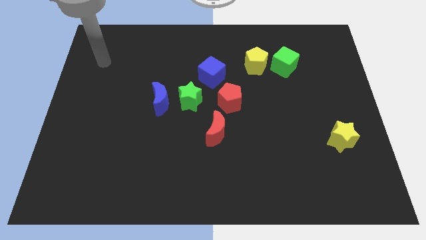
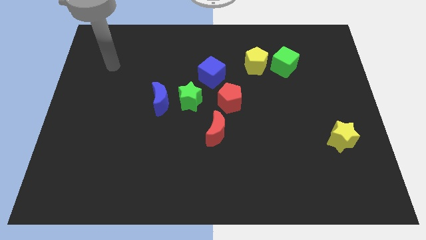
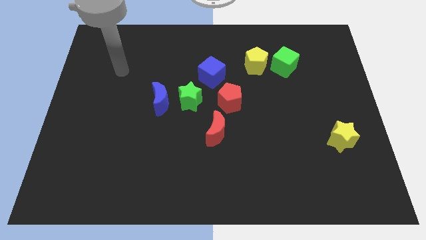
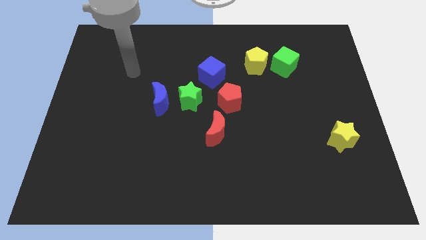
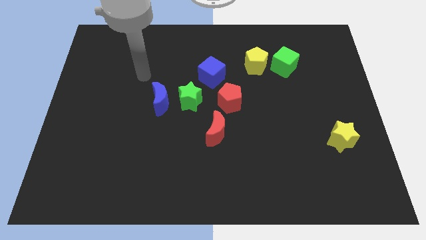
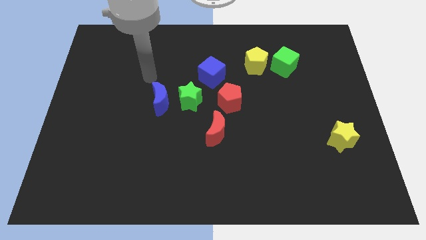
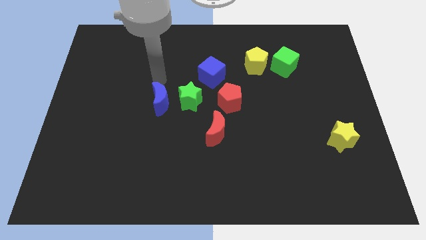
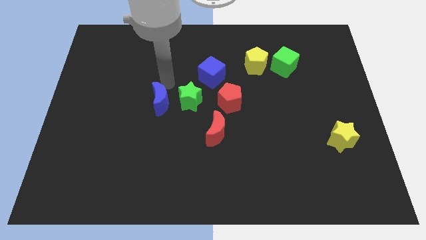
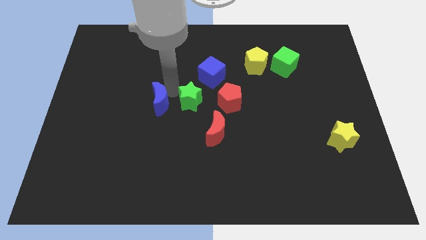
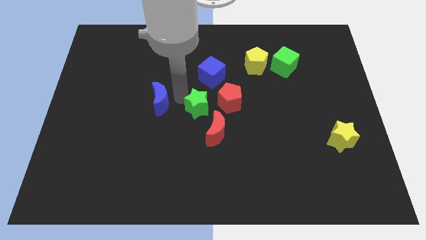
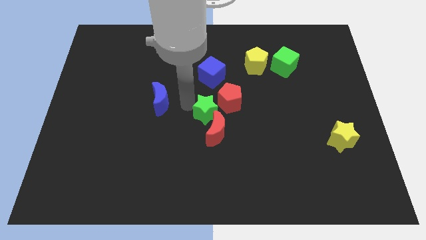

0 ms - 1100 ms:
pull the blue moon apart from the green star

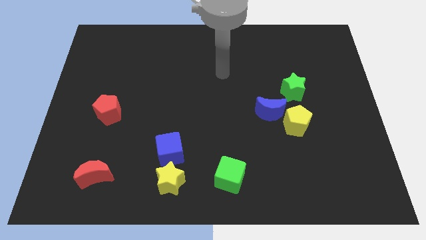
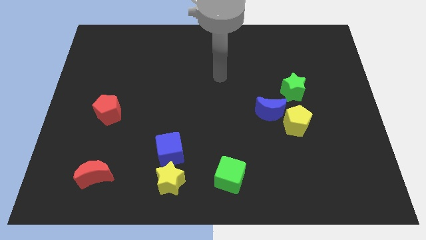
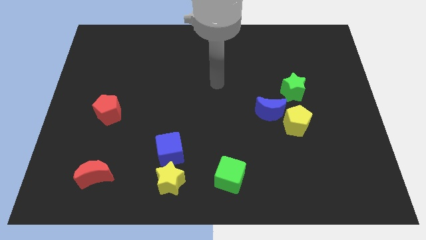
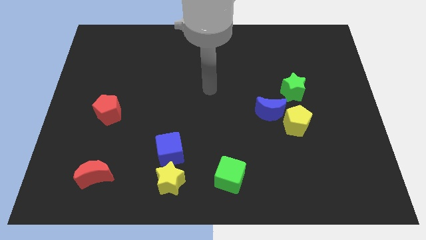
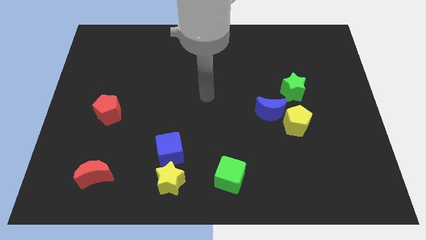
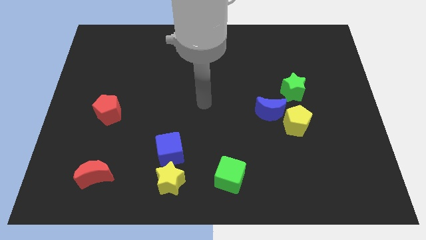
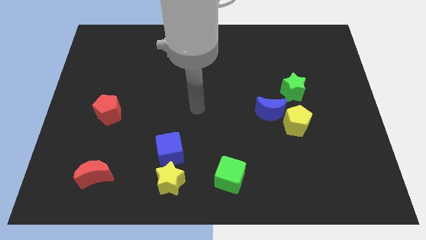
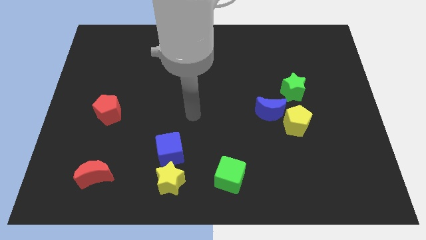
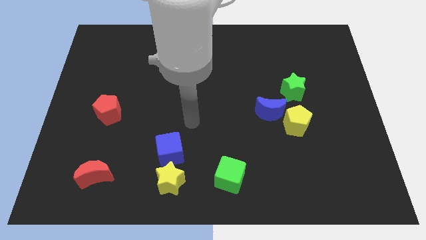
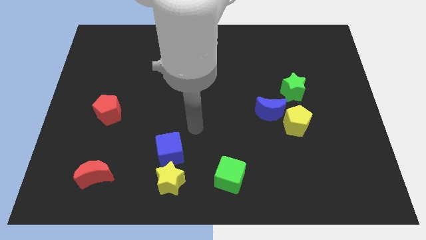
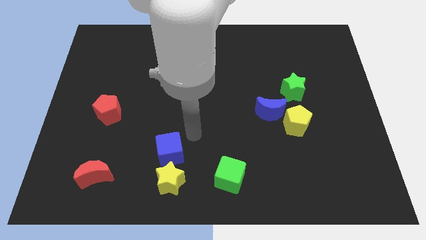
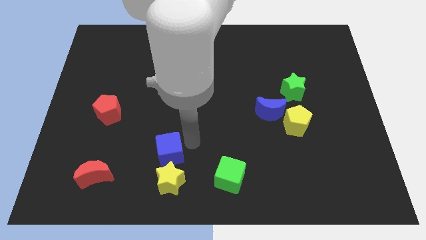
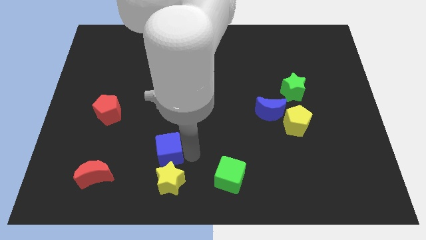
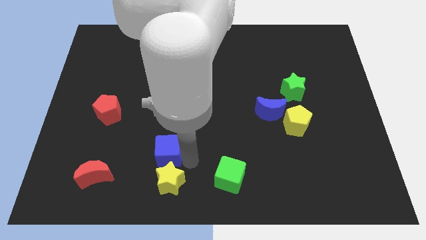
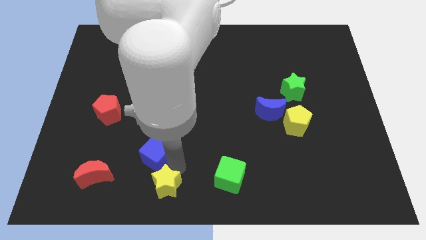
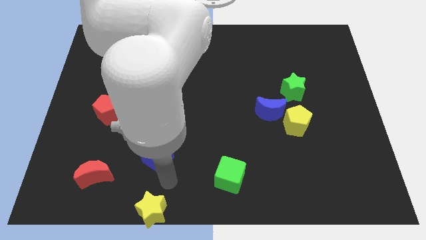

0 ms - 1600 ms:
separate the blue cube from the yellow star

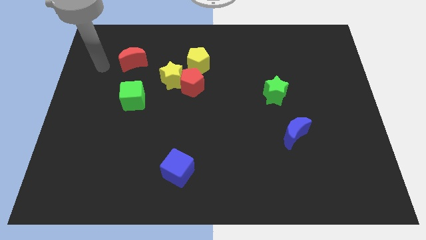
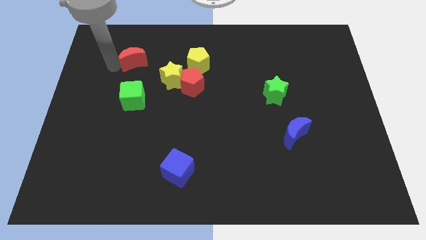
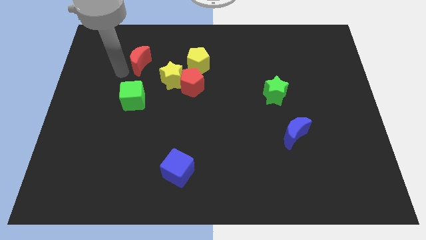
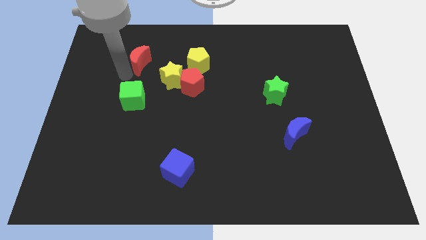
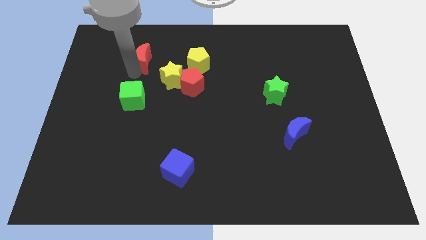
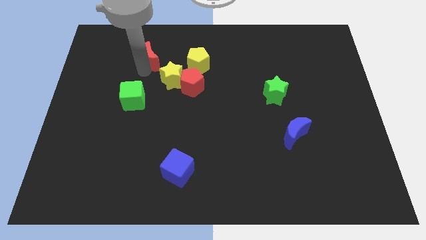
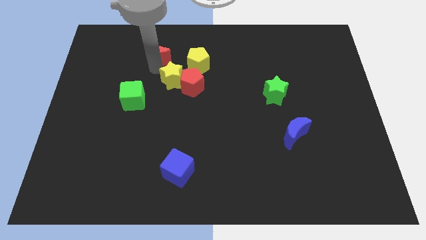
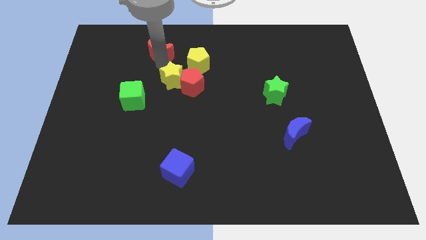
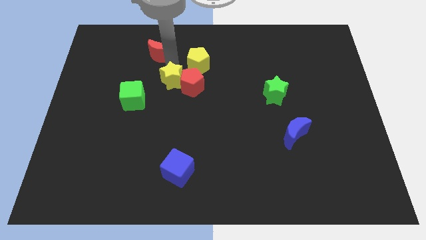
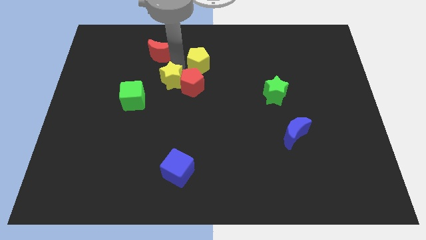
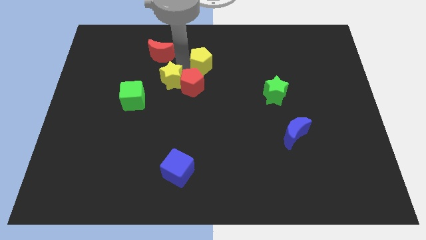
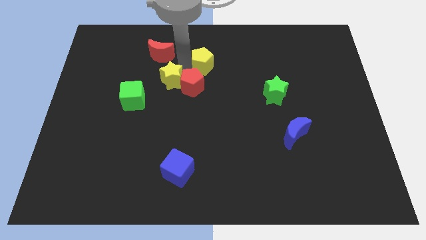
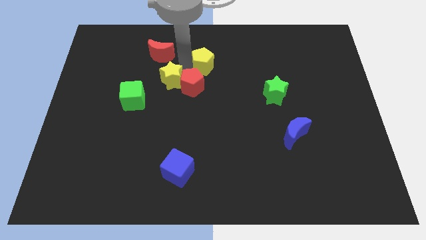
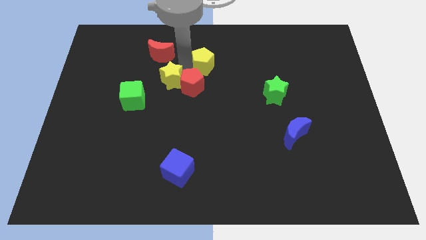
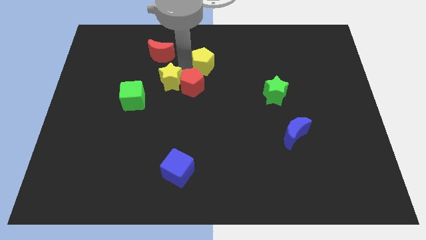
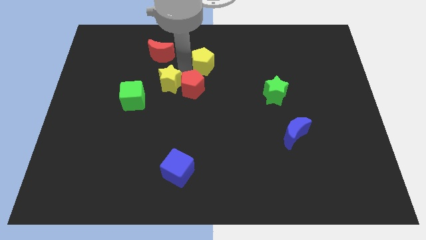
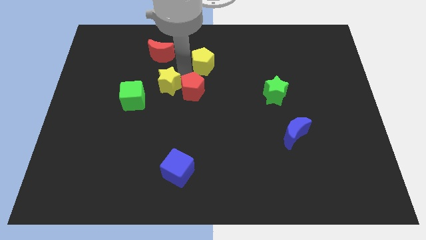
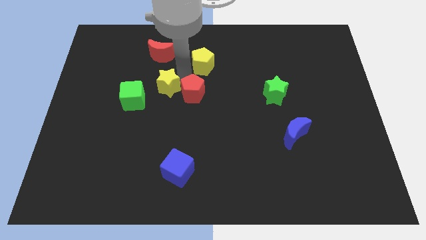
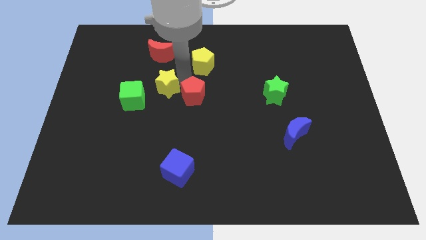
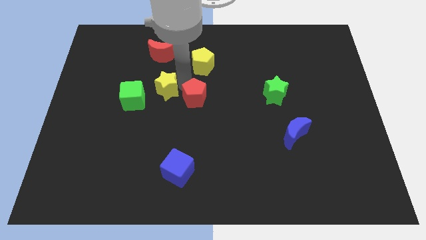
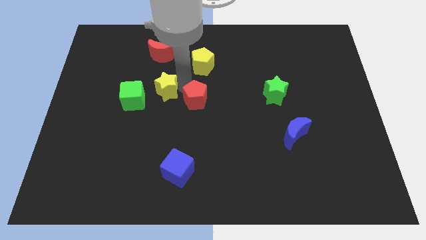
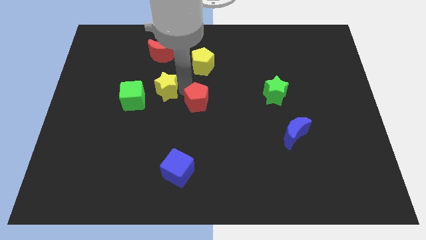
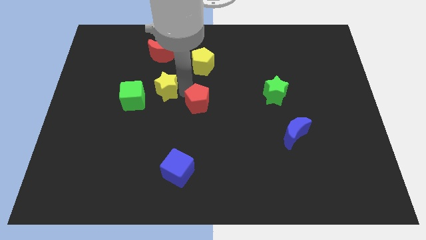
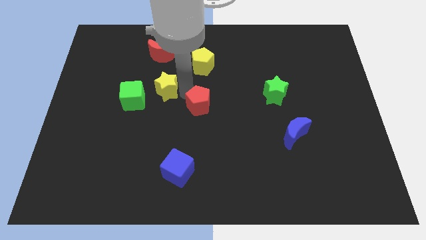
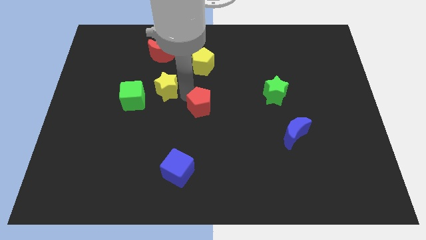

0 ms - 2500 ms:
pull the red pentagon apart from the yellow star and yellow pentagon

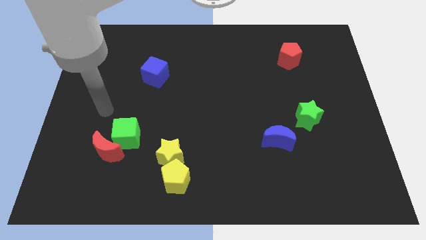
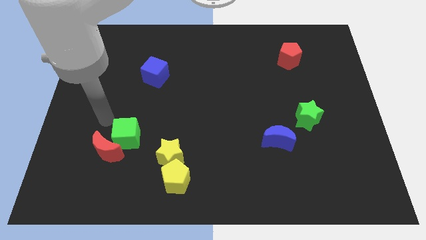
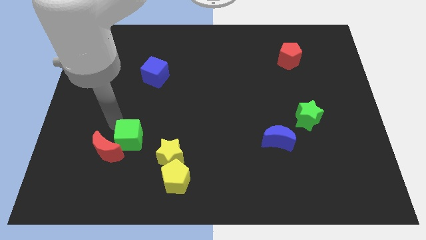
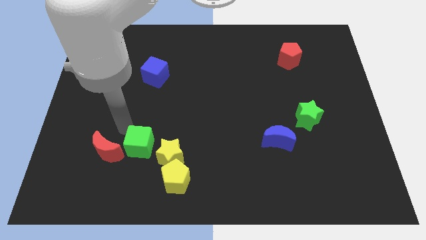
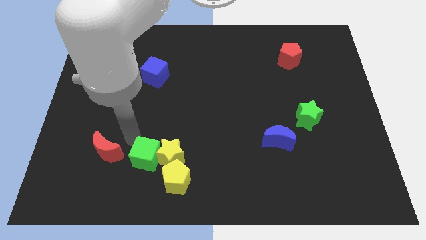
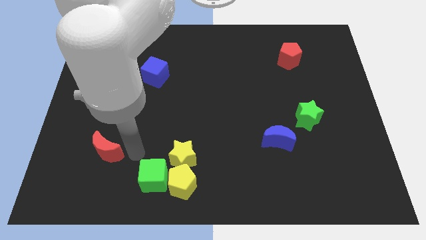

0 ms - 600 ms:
pull the red moon apart from the green cube

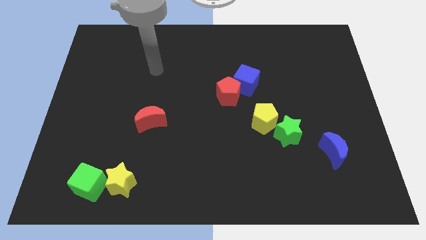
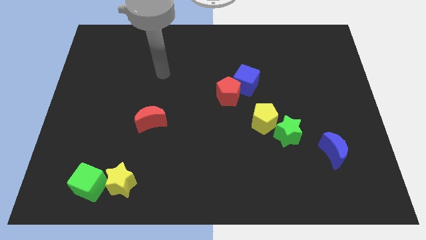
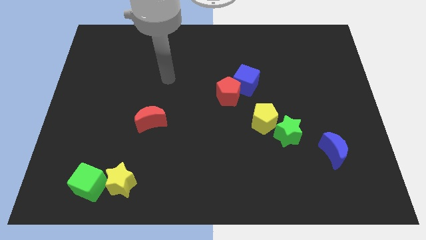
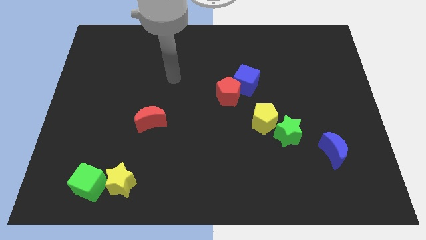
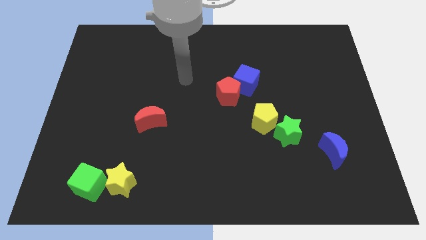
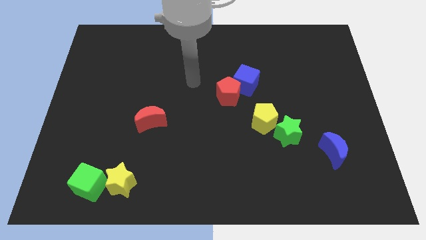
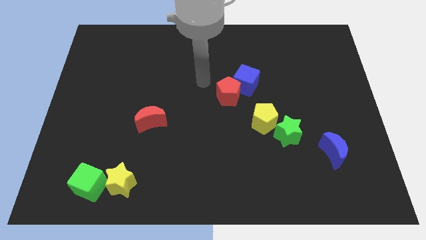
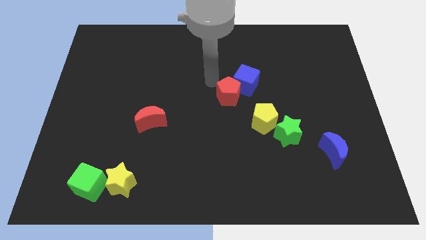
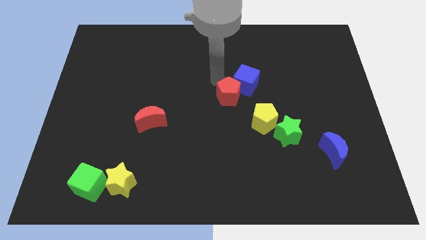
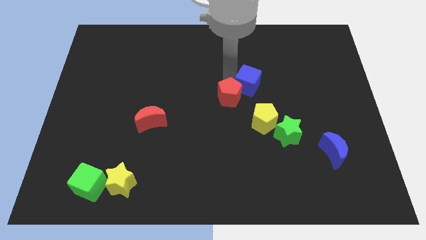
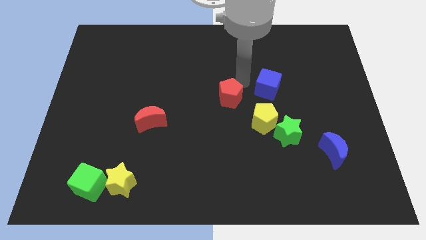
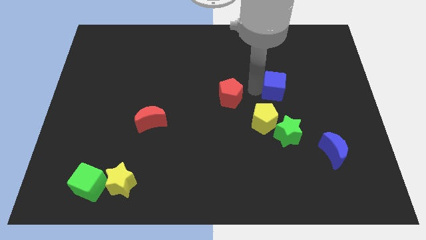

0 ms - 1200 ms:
move the red pentagon away from the blue cube

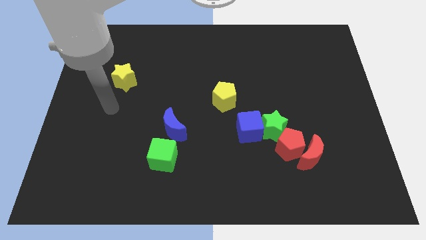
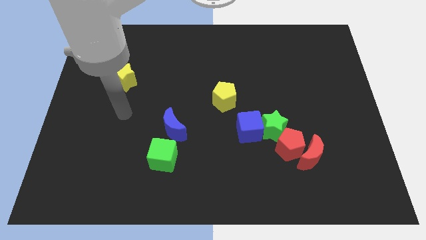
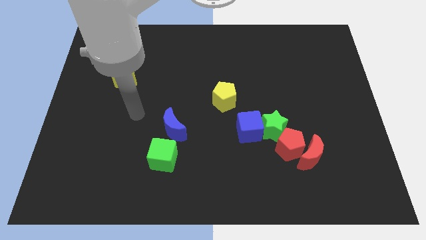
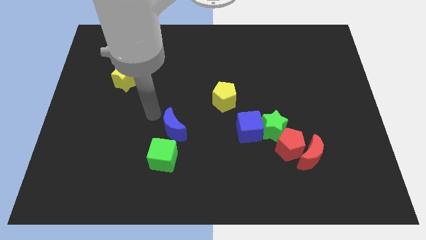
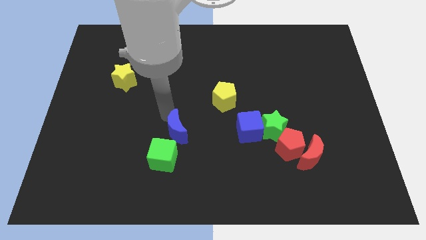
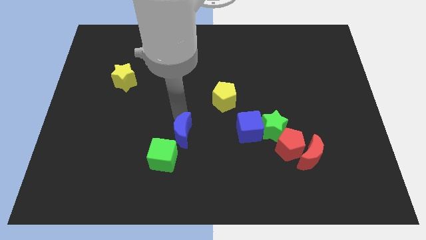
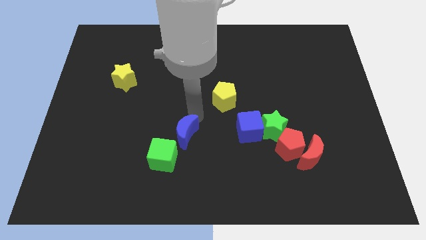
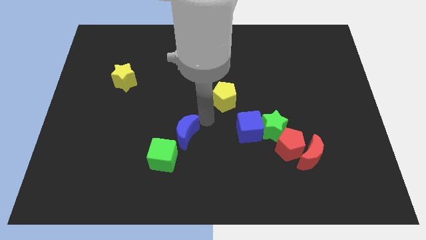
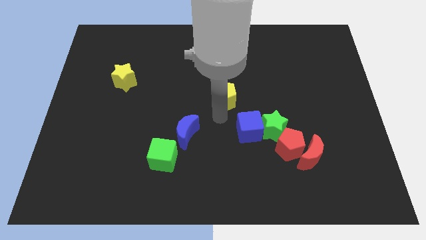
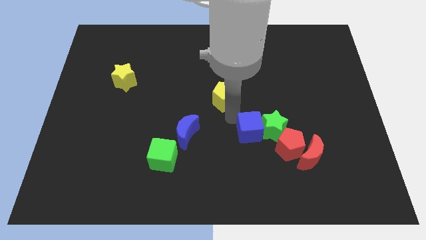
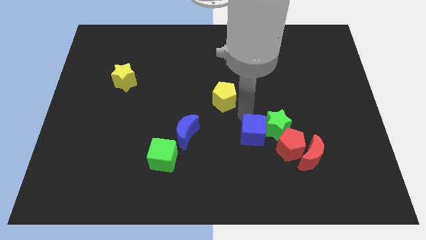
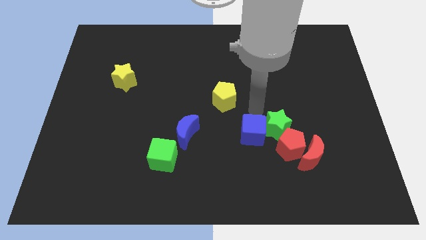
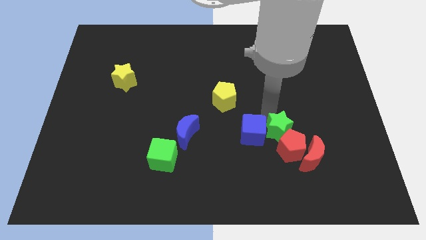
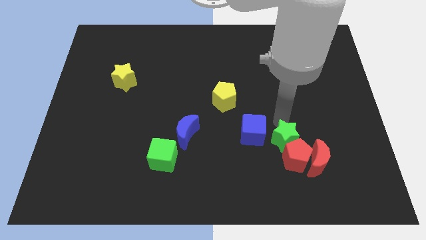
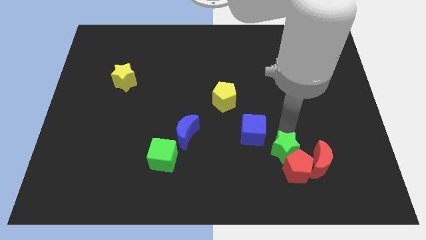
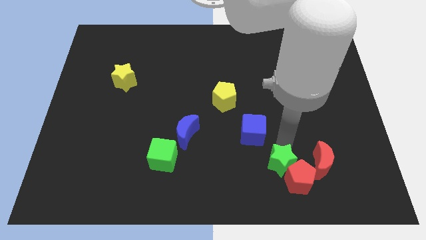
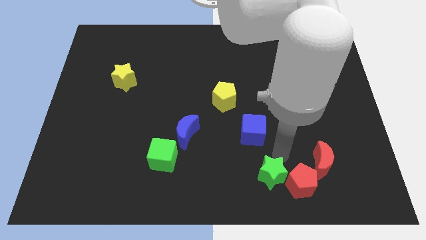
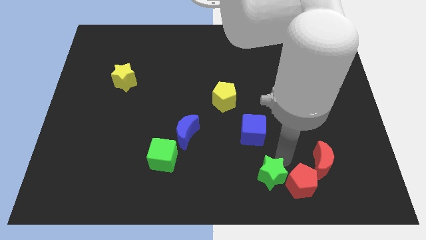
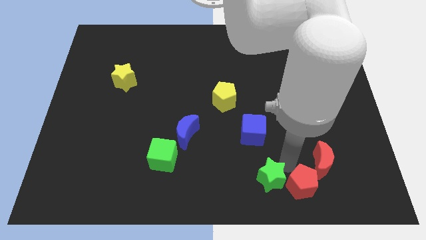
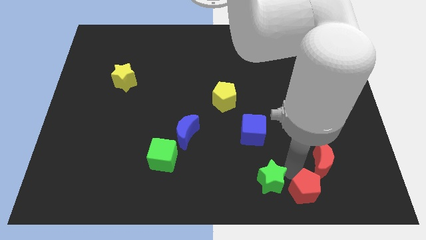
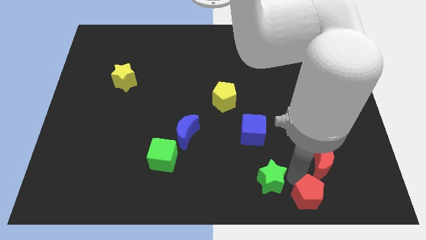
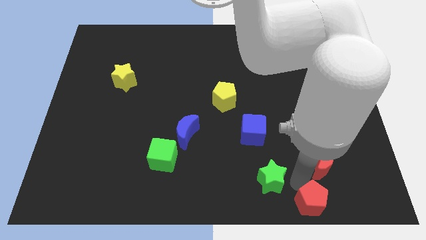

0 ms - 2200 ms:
pull the red pentagon apart from the group of blocks
